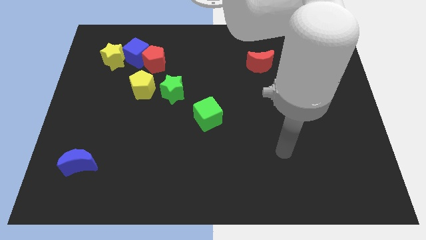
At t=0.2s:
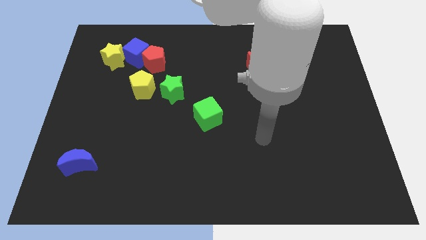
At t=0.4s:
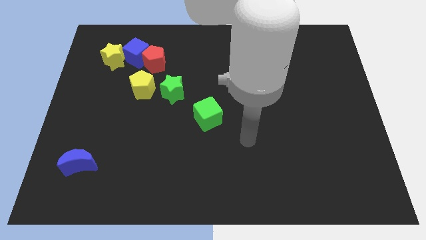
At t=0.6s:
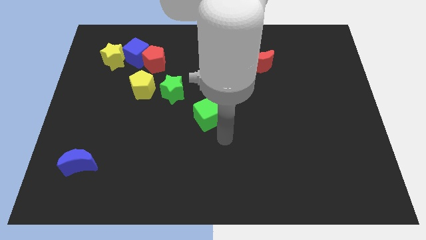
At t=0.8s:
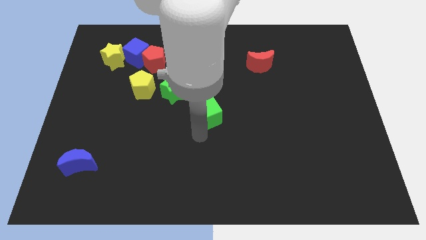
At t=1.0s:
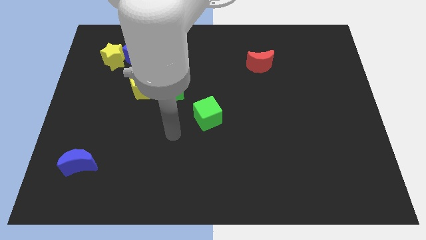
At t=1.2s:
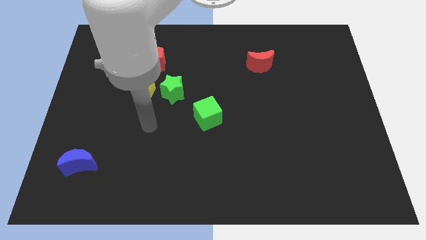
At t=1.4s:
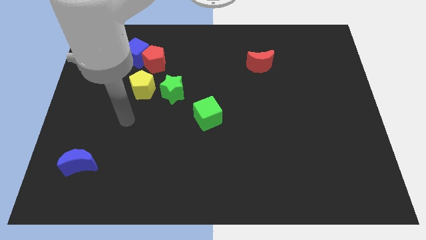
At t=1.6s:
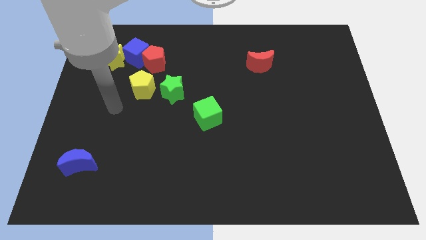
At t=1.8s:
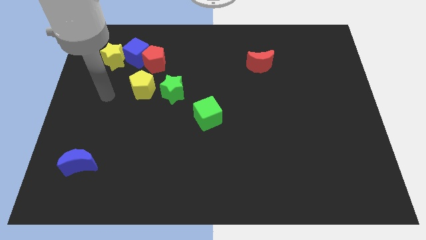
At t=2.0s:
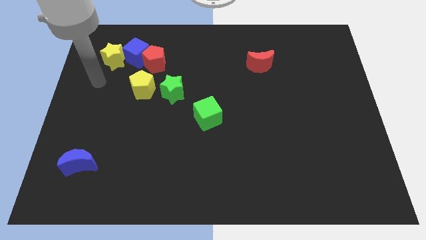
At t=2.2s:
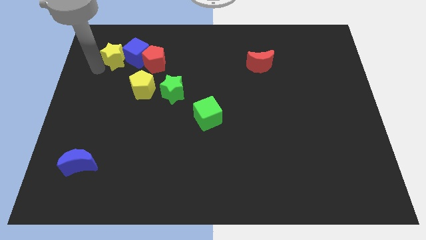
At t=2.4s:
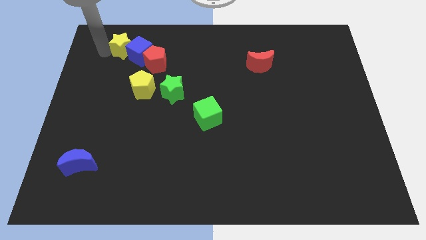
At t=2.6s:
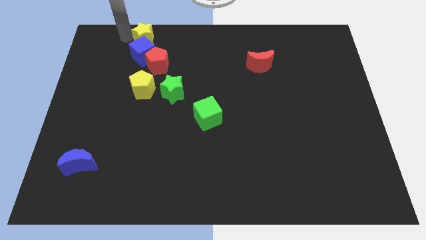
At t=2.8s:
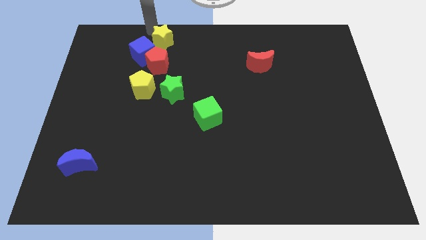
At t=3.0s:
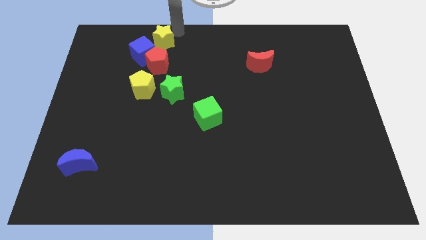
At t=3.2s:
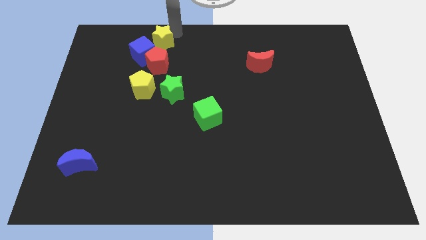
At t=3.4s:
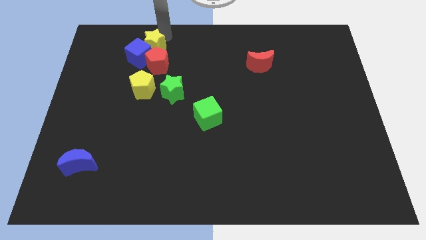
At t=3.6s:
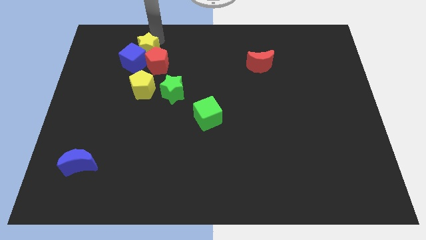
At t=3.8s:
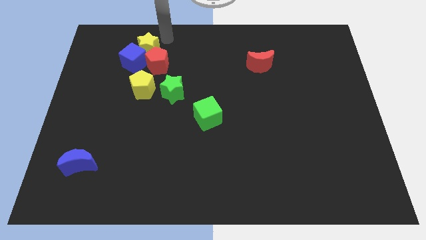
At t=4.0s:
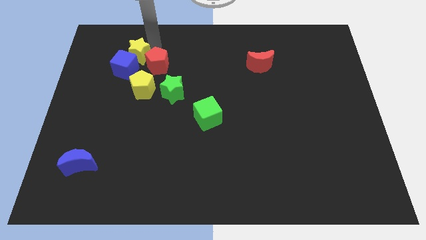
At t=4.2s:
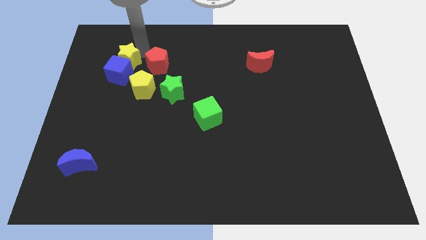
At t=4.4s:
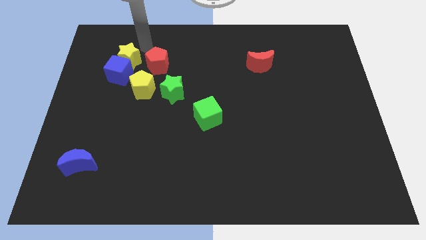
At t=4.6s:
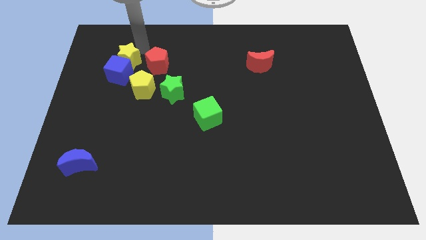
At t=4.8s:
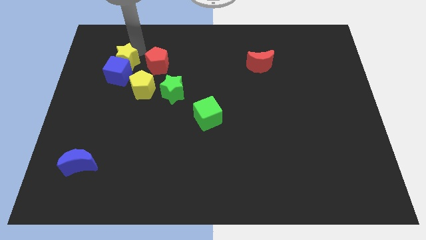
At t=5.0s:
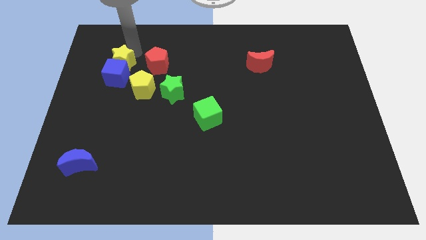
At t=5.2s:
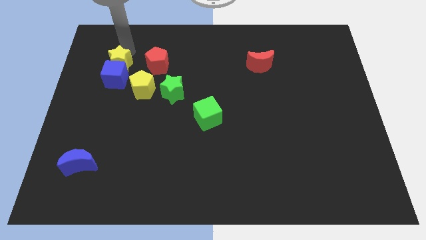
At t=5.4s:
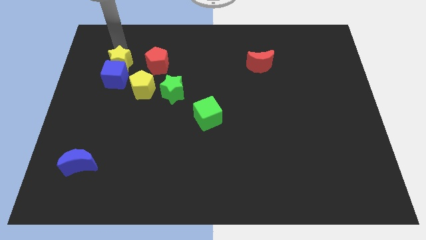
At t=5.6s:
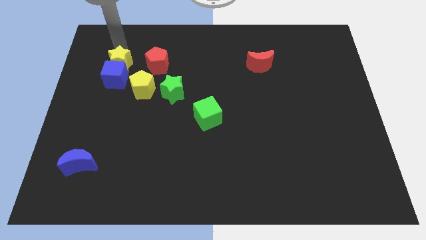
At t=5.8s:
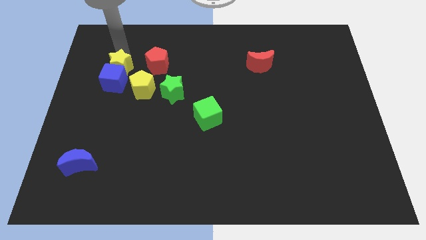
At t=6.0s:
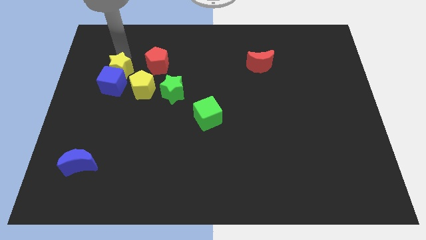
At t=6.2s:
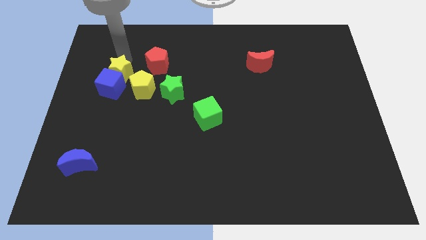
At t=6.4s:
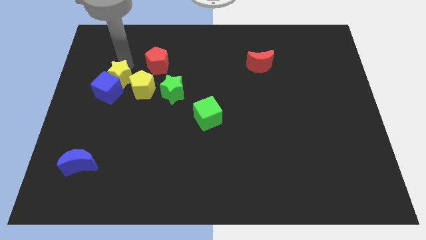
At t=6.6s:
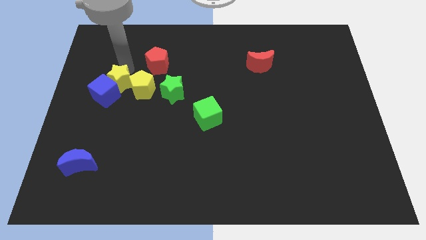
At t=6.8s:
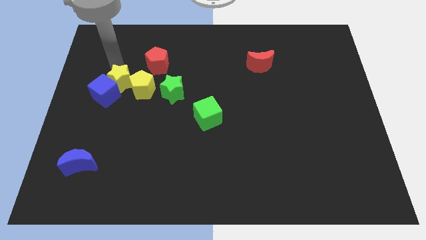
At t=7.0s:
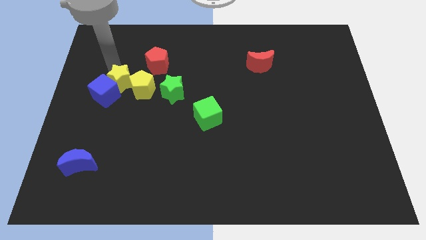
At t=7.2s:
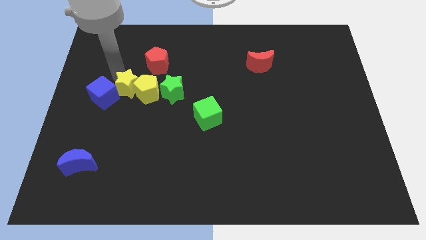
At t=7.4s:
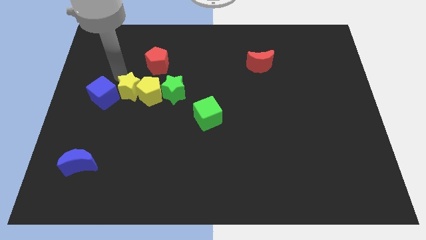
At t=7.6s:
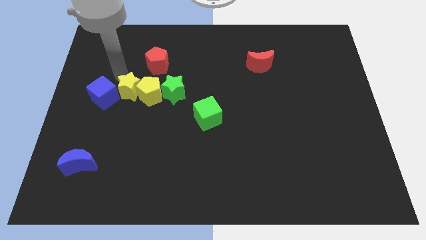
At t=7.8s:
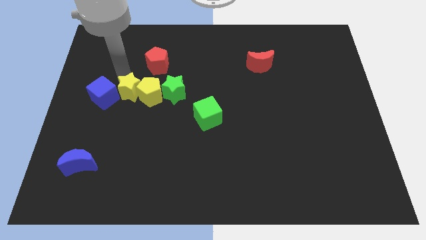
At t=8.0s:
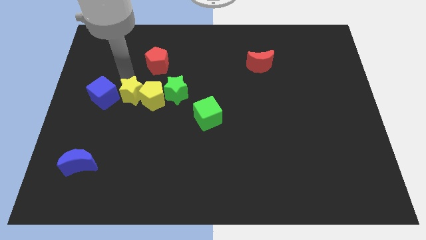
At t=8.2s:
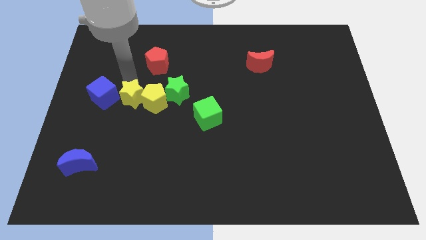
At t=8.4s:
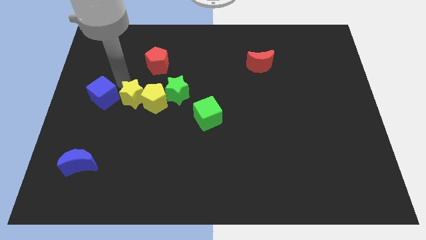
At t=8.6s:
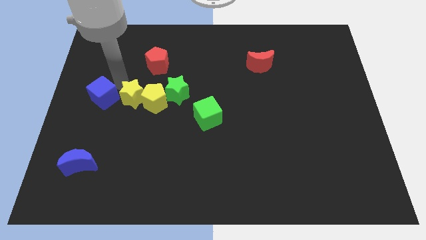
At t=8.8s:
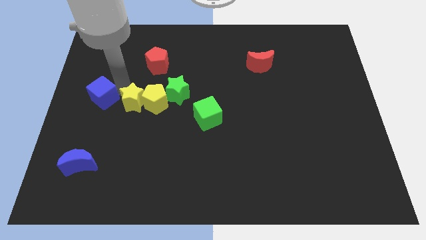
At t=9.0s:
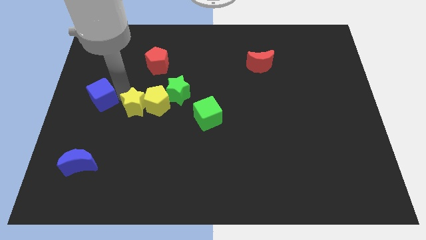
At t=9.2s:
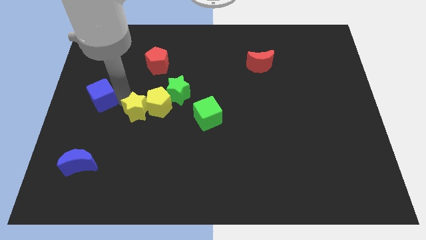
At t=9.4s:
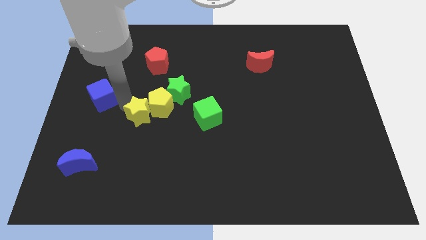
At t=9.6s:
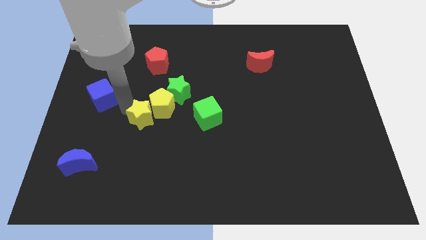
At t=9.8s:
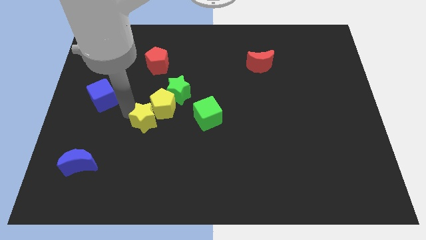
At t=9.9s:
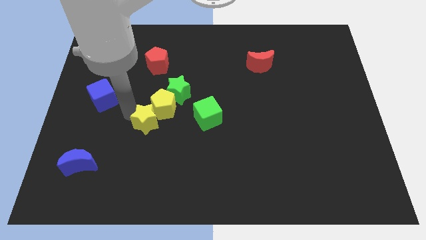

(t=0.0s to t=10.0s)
push the yellow star diagonally down and to the right

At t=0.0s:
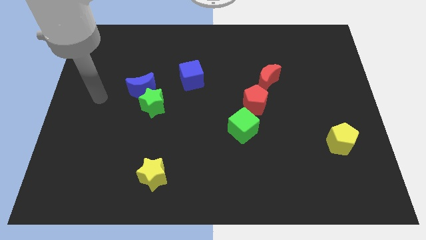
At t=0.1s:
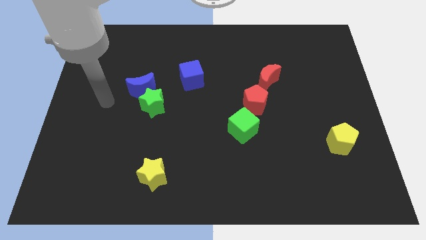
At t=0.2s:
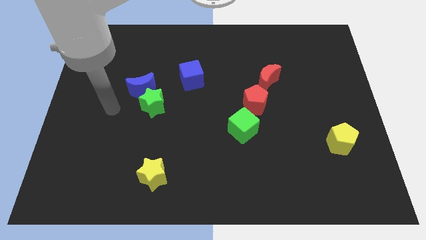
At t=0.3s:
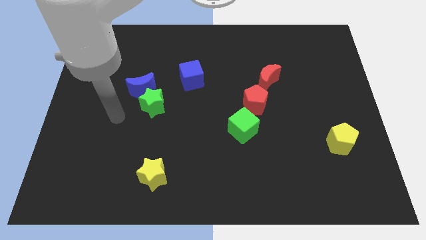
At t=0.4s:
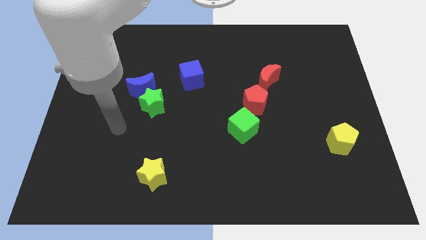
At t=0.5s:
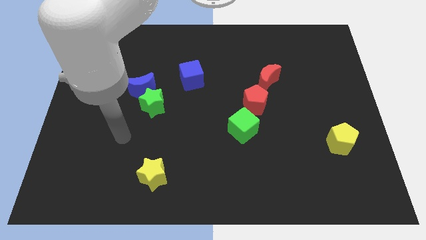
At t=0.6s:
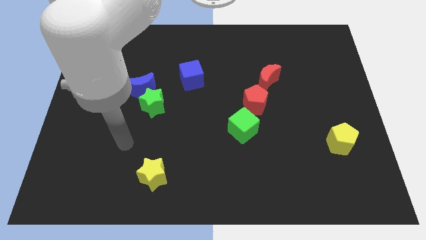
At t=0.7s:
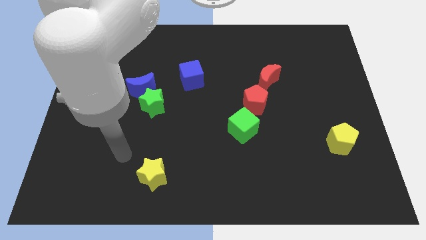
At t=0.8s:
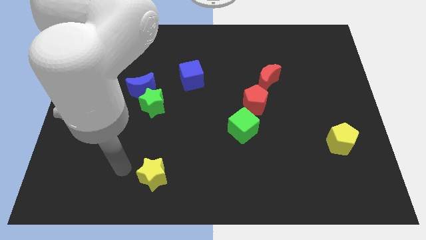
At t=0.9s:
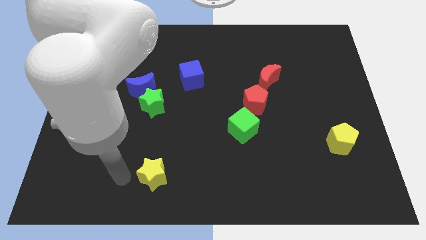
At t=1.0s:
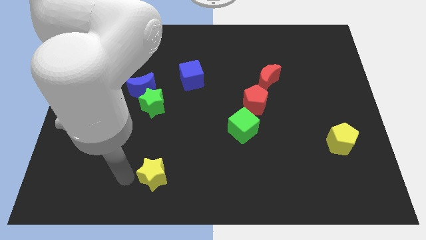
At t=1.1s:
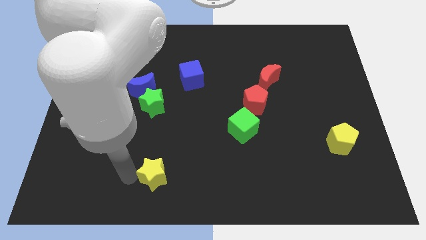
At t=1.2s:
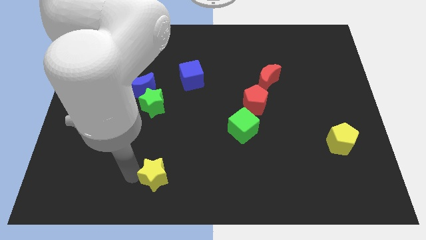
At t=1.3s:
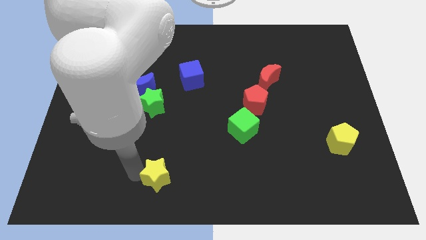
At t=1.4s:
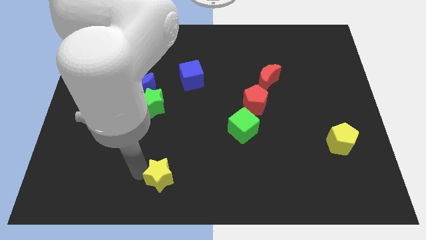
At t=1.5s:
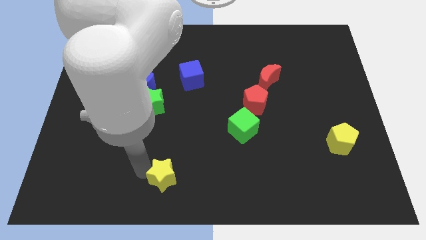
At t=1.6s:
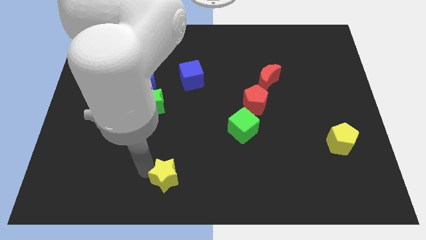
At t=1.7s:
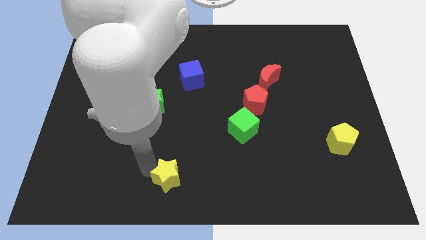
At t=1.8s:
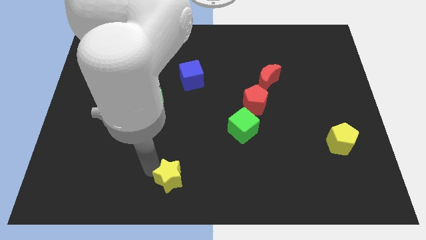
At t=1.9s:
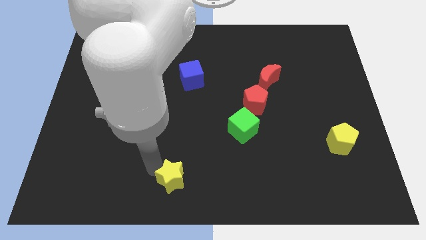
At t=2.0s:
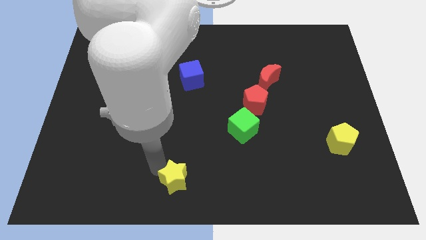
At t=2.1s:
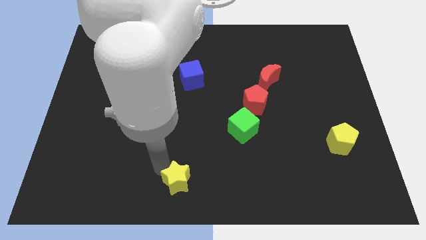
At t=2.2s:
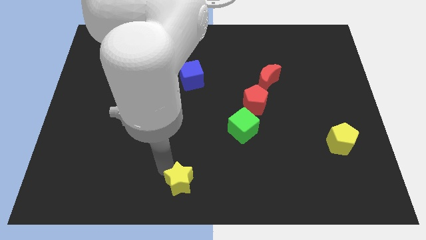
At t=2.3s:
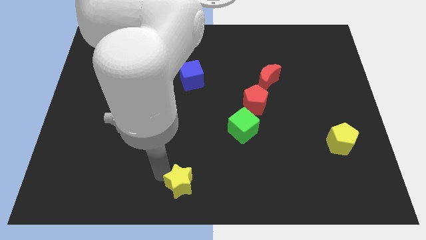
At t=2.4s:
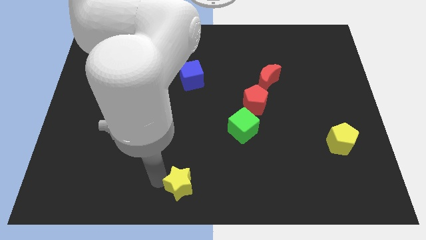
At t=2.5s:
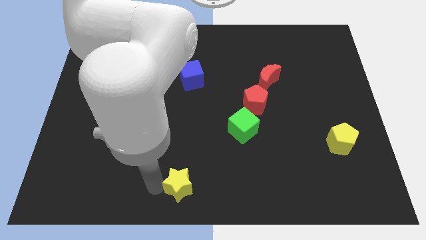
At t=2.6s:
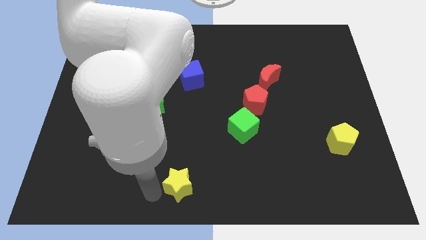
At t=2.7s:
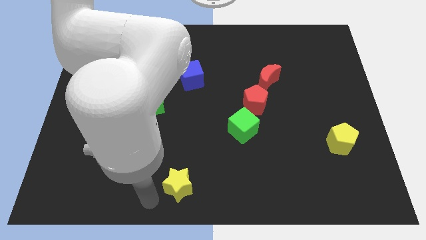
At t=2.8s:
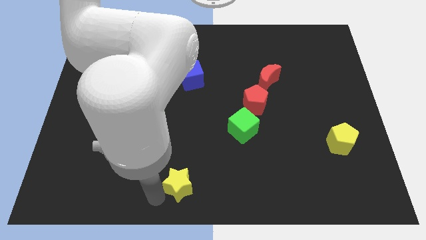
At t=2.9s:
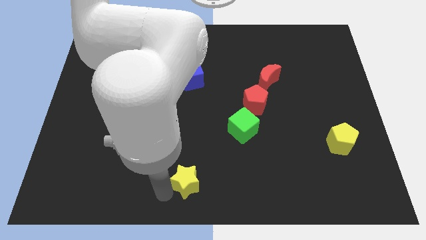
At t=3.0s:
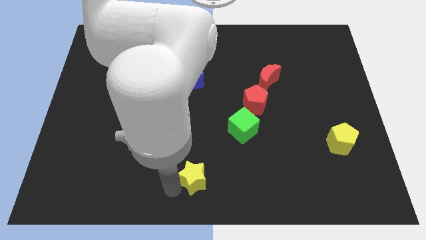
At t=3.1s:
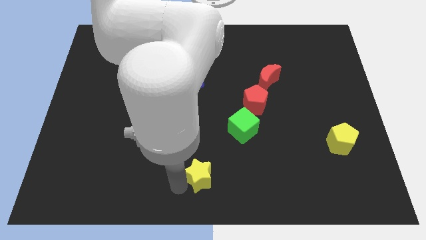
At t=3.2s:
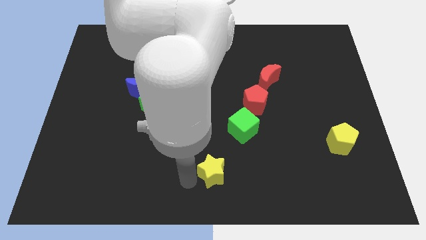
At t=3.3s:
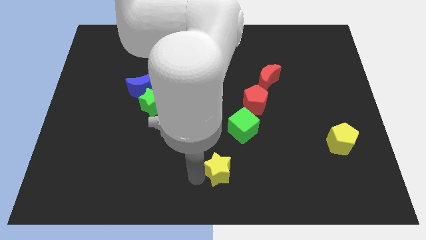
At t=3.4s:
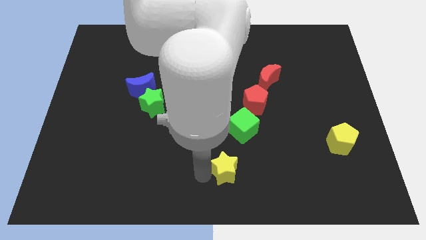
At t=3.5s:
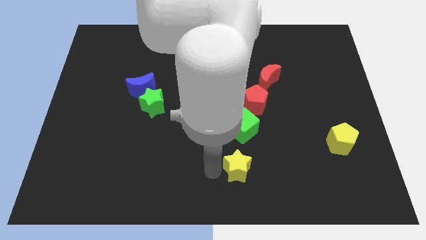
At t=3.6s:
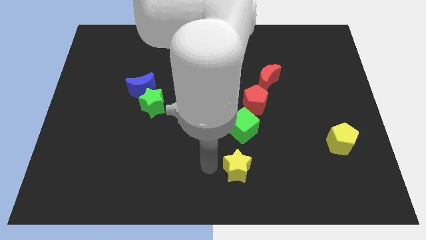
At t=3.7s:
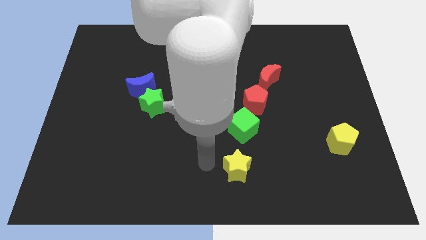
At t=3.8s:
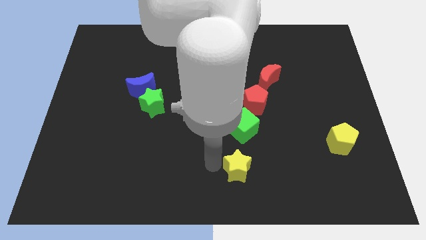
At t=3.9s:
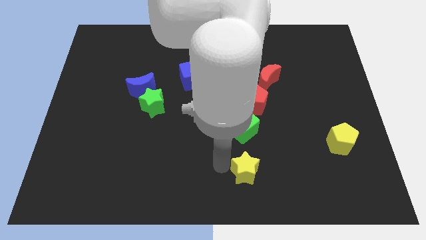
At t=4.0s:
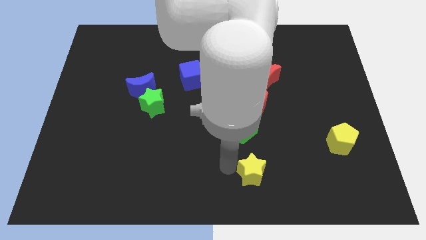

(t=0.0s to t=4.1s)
push the yellow star to the right
